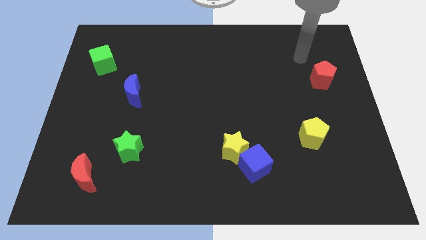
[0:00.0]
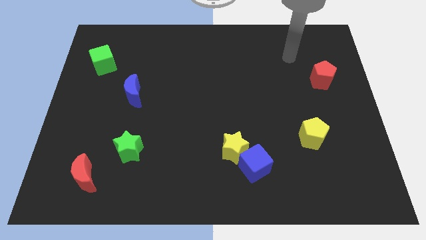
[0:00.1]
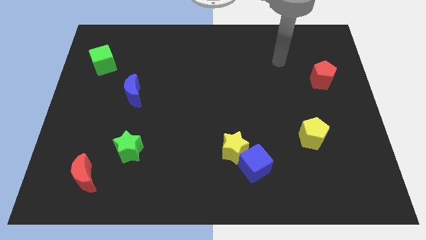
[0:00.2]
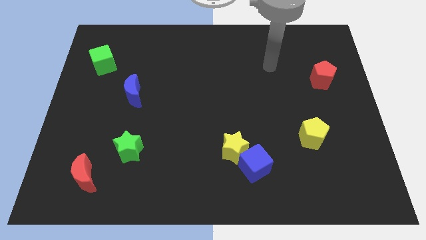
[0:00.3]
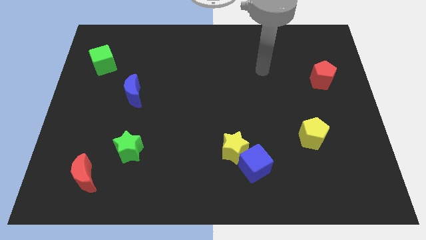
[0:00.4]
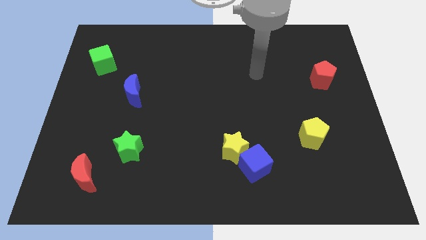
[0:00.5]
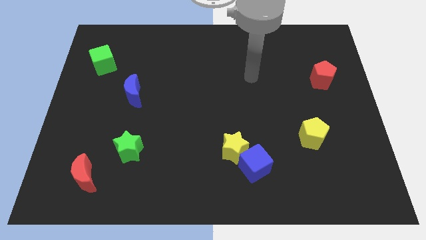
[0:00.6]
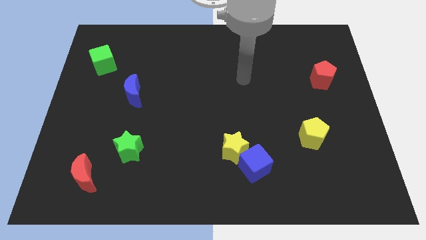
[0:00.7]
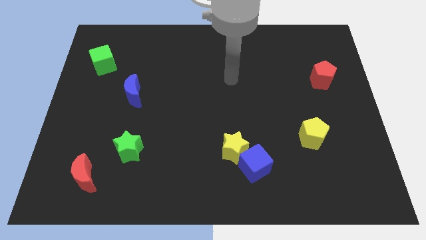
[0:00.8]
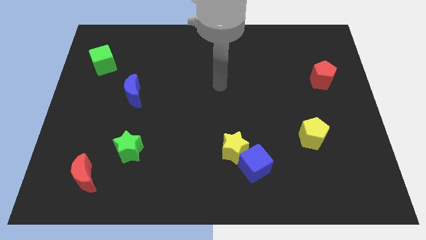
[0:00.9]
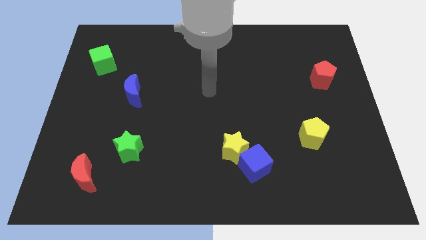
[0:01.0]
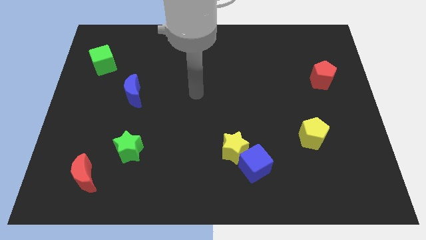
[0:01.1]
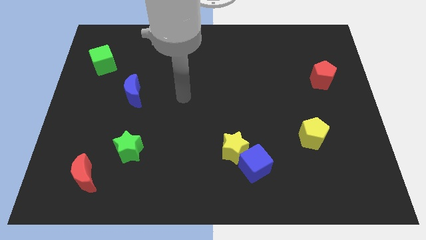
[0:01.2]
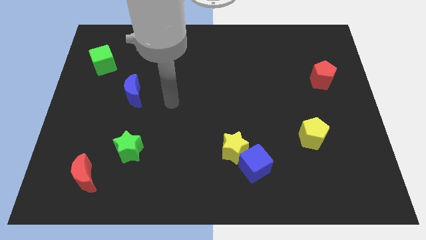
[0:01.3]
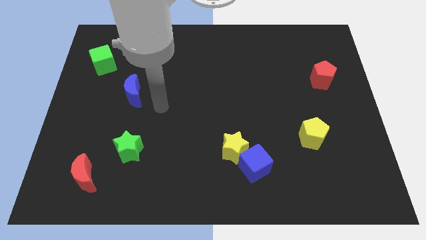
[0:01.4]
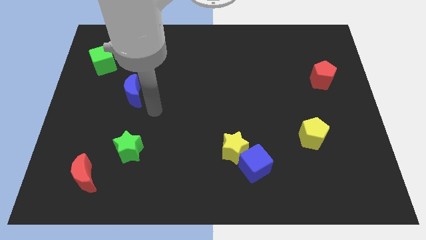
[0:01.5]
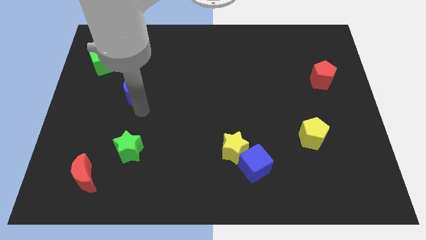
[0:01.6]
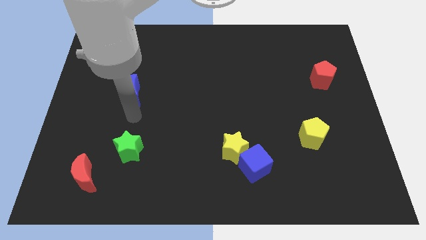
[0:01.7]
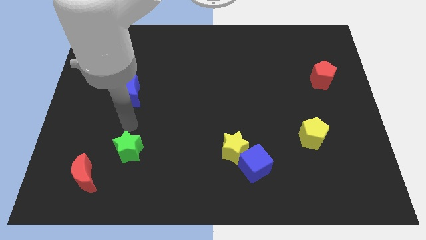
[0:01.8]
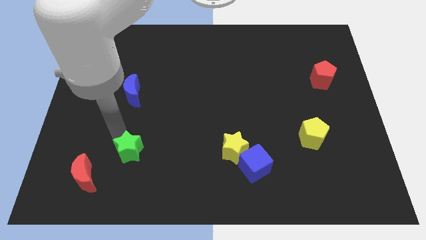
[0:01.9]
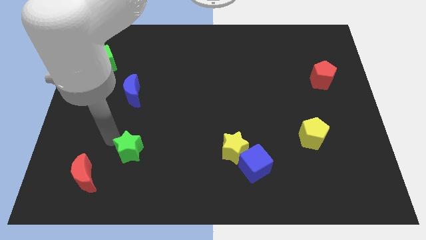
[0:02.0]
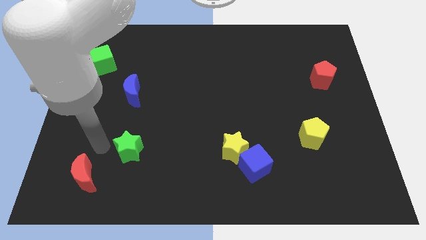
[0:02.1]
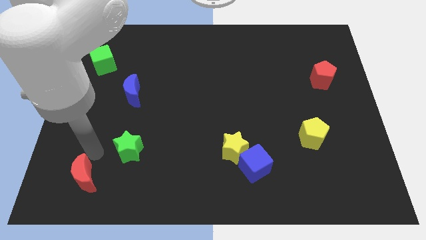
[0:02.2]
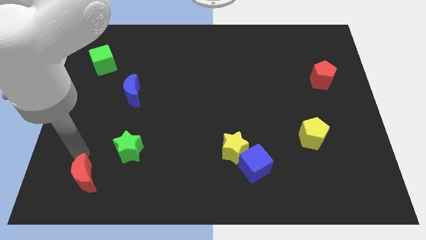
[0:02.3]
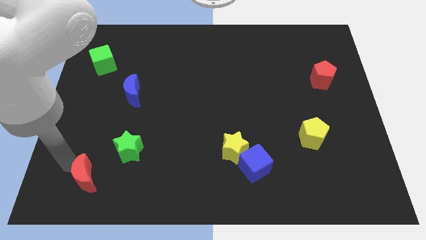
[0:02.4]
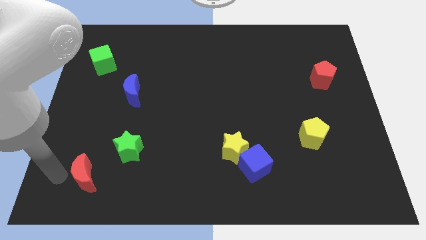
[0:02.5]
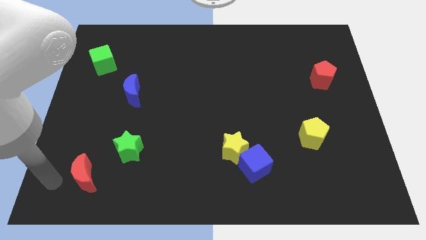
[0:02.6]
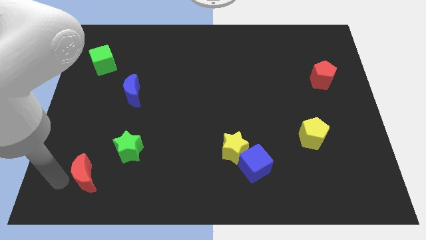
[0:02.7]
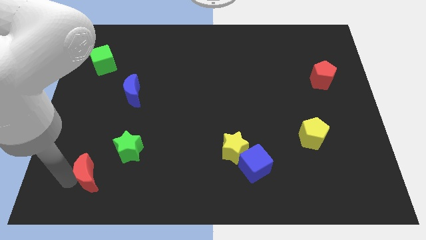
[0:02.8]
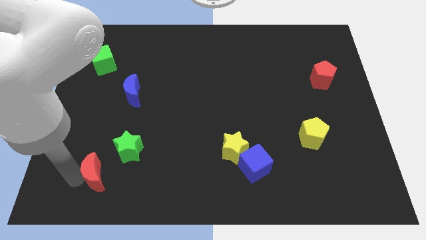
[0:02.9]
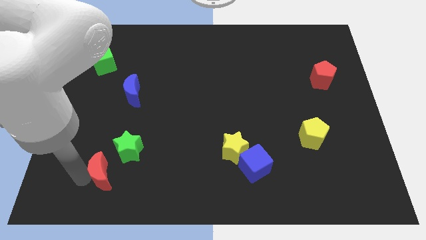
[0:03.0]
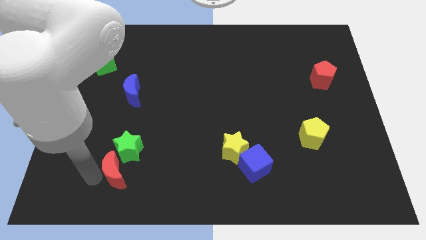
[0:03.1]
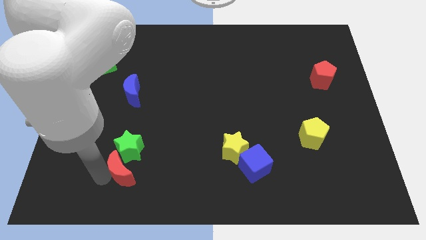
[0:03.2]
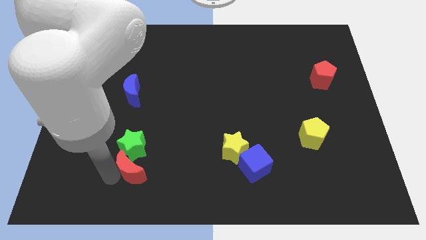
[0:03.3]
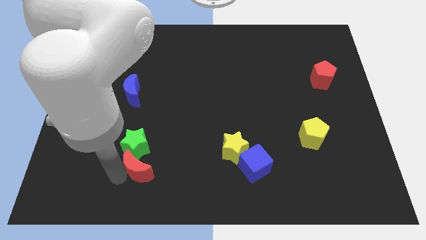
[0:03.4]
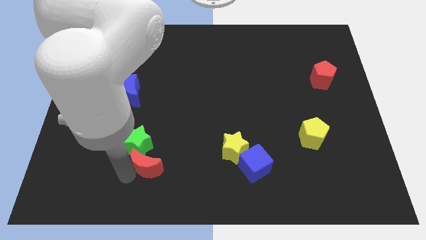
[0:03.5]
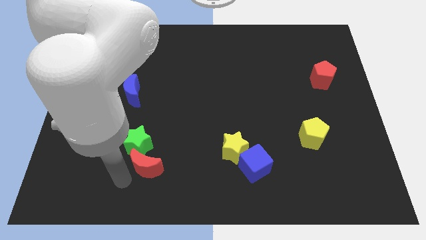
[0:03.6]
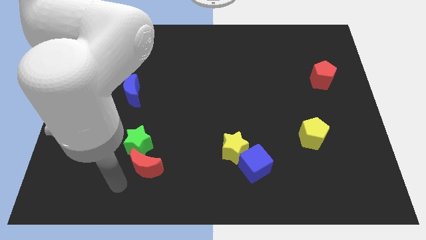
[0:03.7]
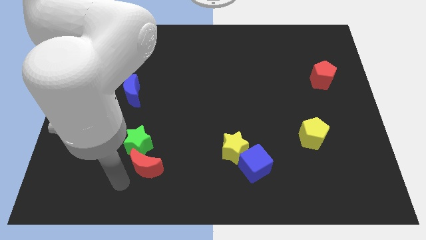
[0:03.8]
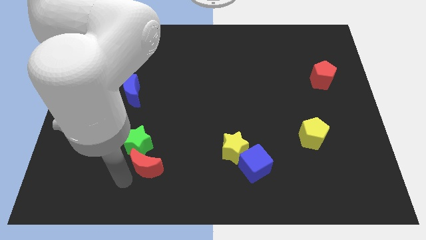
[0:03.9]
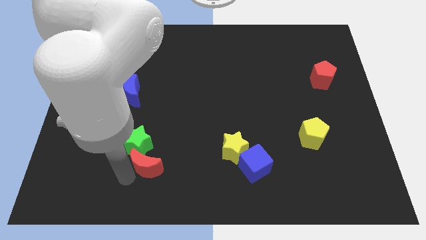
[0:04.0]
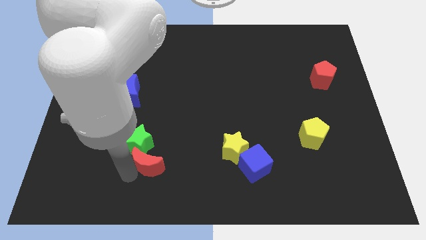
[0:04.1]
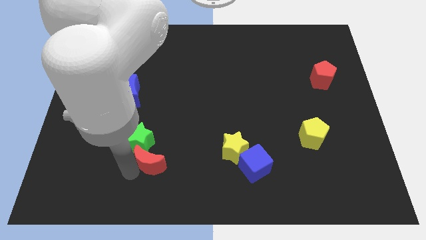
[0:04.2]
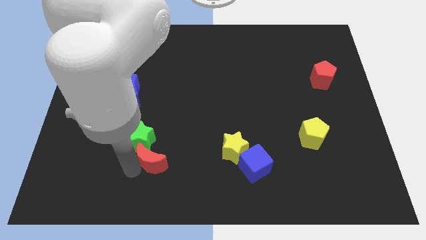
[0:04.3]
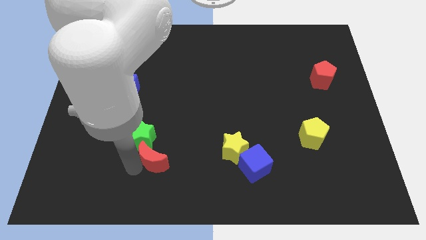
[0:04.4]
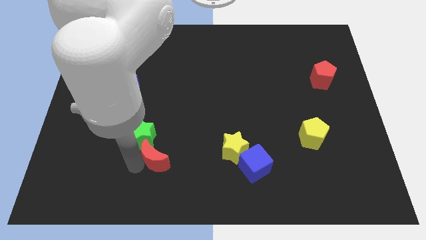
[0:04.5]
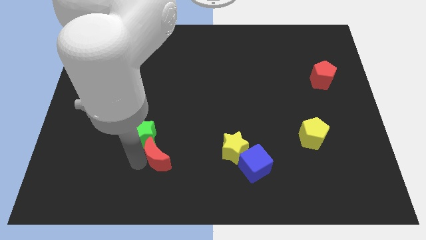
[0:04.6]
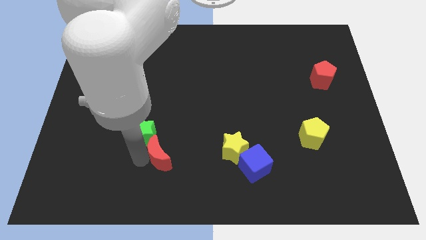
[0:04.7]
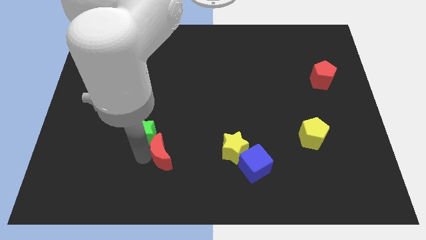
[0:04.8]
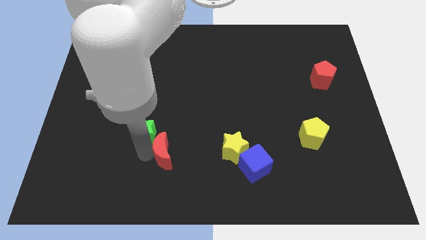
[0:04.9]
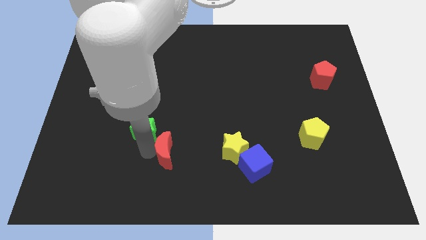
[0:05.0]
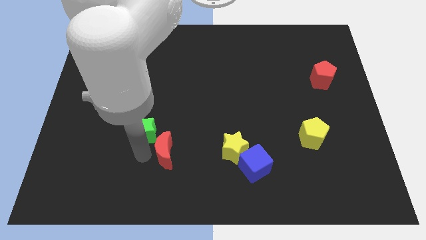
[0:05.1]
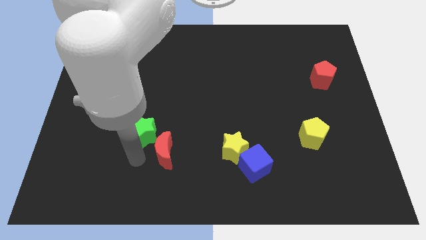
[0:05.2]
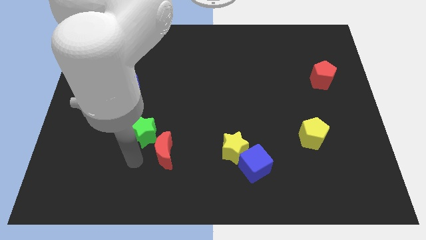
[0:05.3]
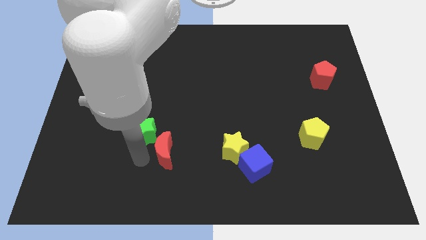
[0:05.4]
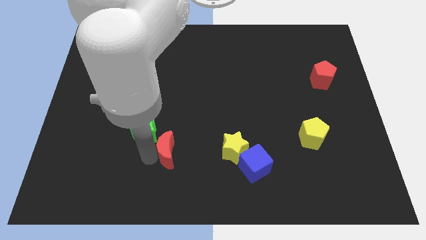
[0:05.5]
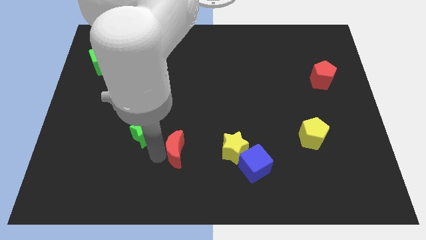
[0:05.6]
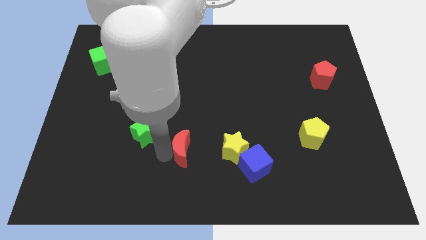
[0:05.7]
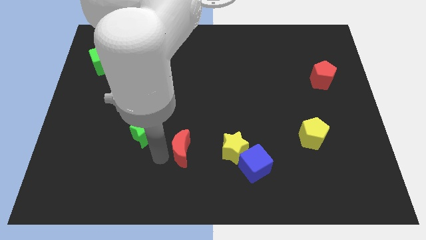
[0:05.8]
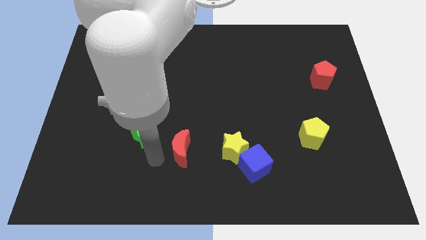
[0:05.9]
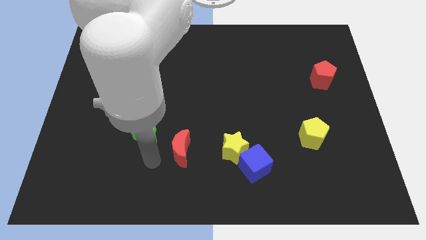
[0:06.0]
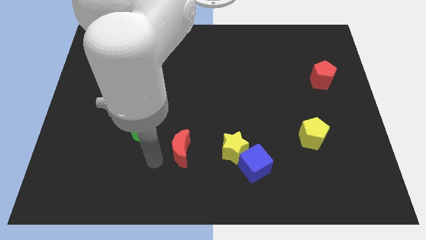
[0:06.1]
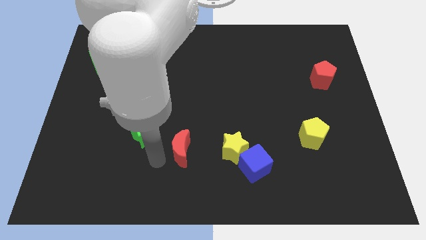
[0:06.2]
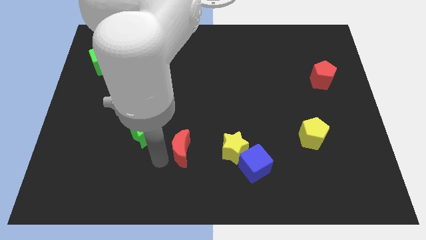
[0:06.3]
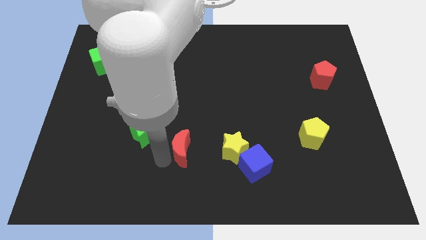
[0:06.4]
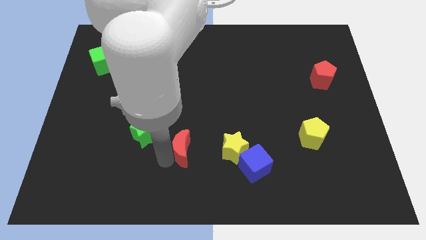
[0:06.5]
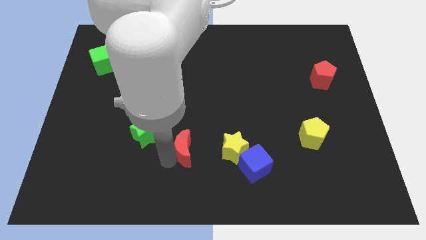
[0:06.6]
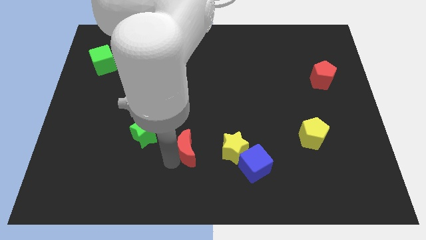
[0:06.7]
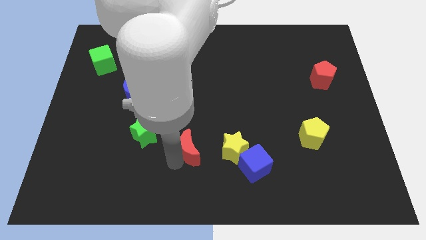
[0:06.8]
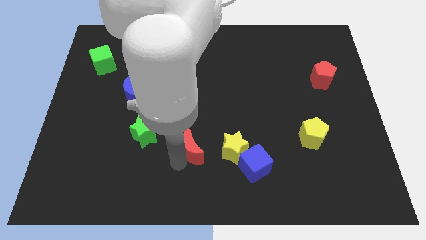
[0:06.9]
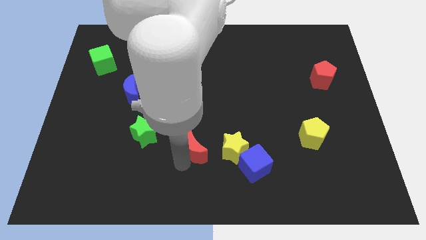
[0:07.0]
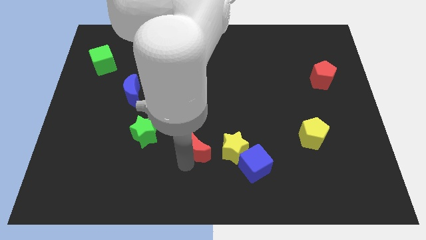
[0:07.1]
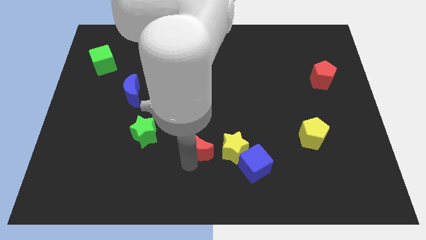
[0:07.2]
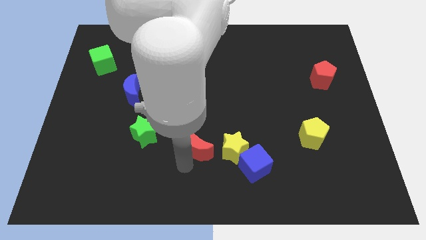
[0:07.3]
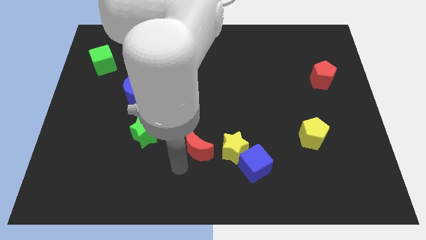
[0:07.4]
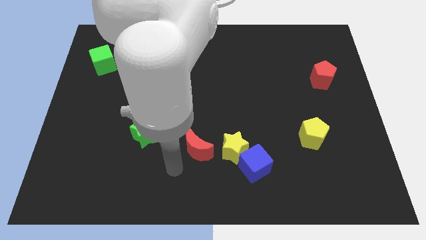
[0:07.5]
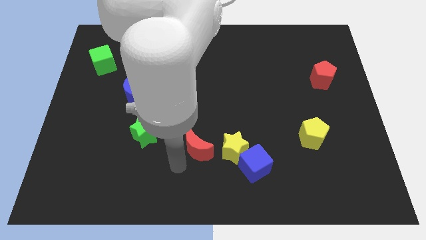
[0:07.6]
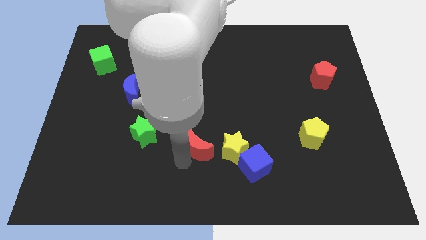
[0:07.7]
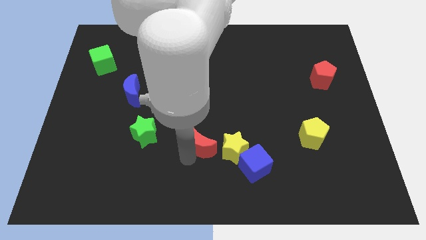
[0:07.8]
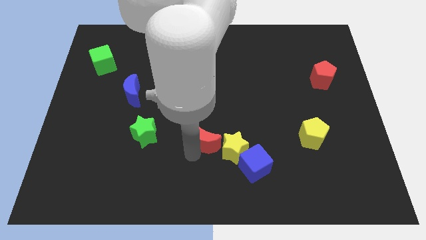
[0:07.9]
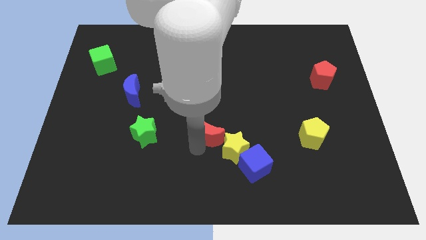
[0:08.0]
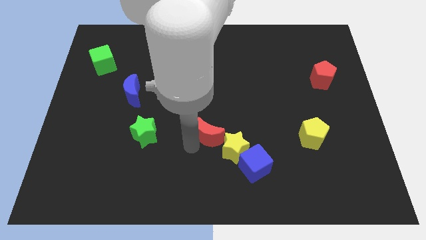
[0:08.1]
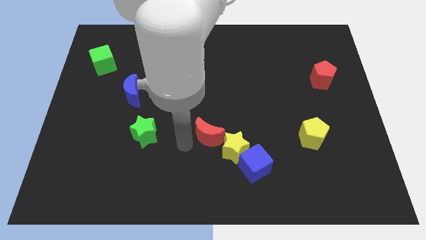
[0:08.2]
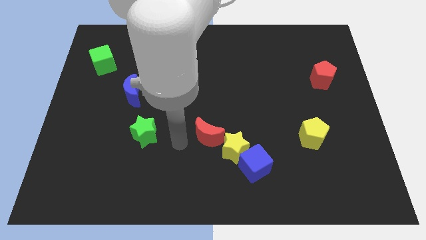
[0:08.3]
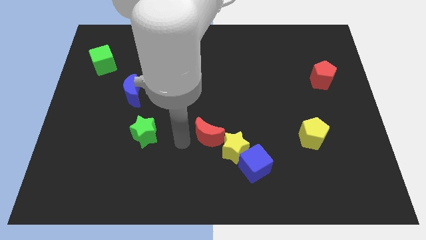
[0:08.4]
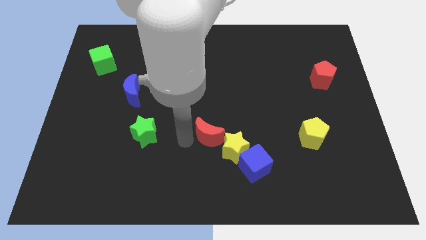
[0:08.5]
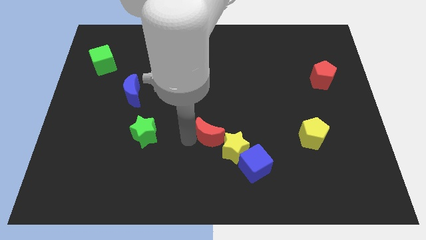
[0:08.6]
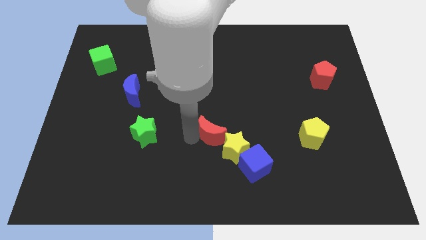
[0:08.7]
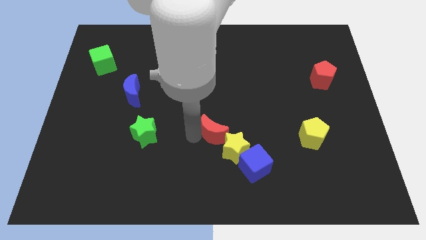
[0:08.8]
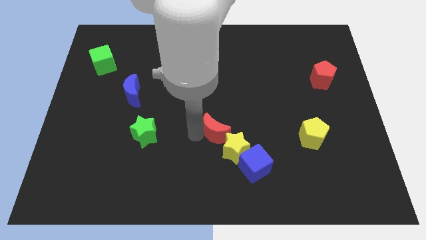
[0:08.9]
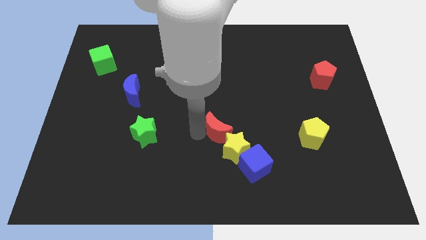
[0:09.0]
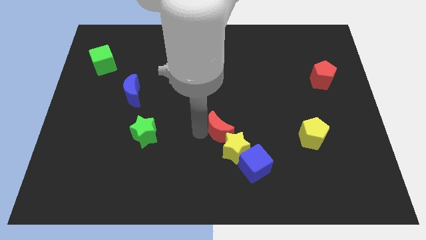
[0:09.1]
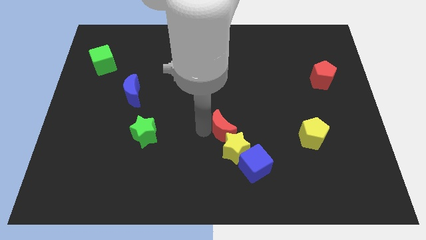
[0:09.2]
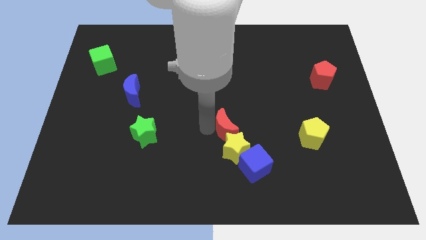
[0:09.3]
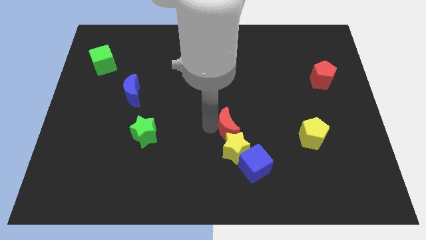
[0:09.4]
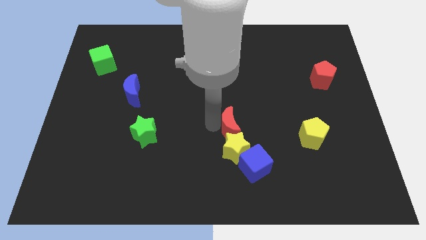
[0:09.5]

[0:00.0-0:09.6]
push the red moon diagonally up and to the right of the yellow star
